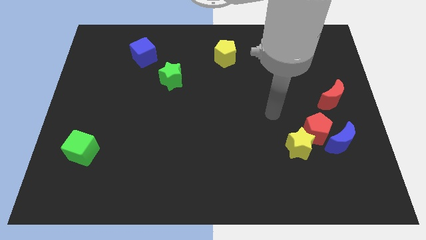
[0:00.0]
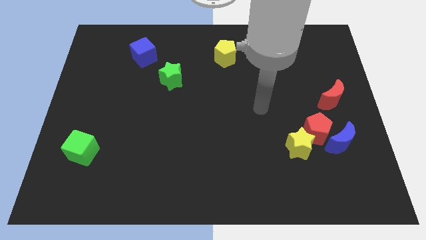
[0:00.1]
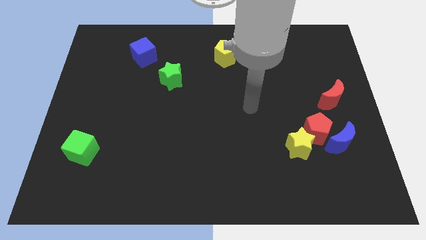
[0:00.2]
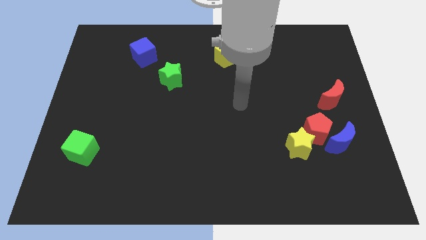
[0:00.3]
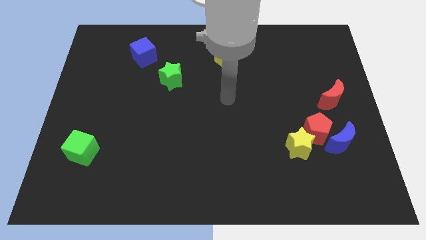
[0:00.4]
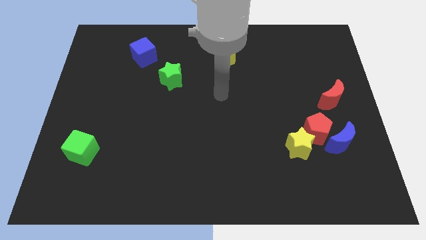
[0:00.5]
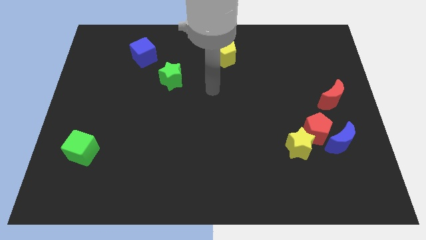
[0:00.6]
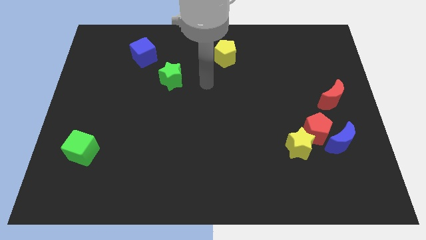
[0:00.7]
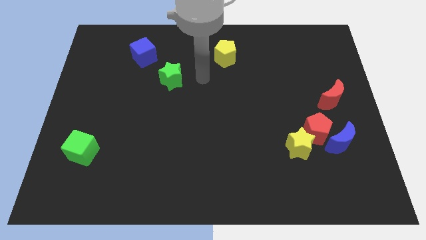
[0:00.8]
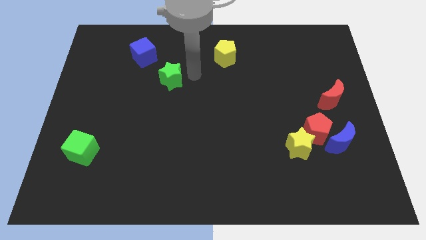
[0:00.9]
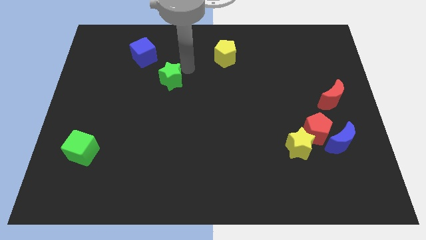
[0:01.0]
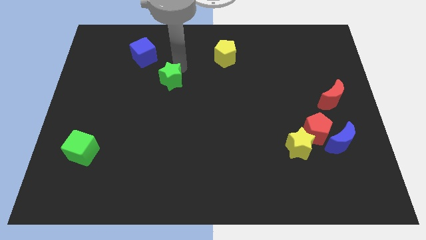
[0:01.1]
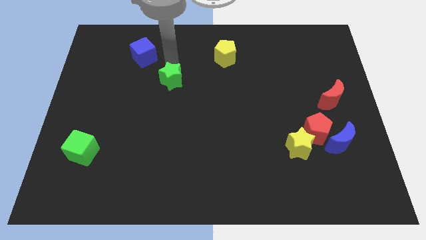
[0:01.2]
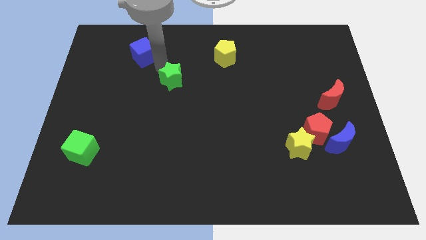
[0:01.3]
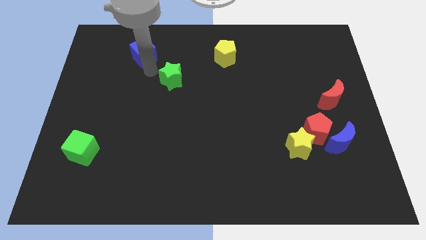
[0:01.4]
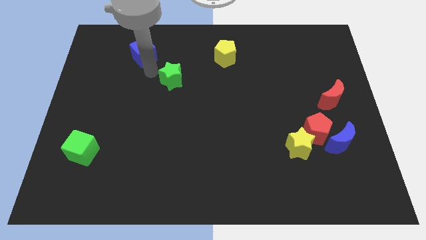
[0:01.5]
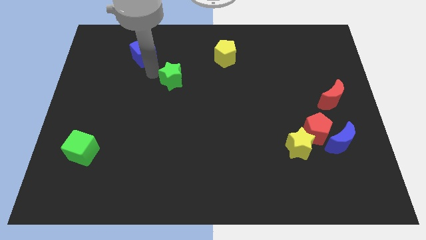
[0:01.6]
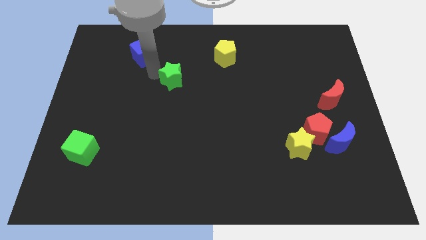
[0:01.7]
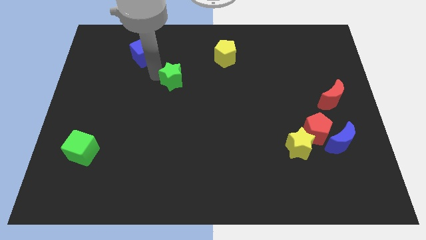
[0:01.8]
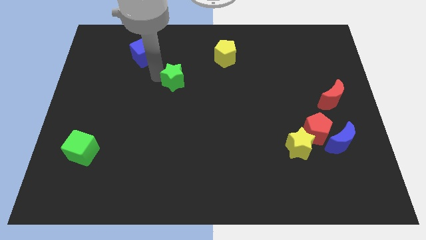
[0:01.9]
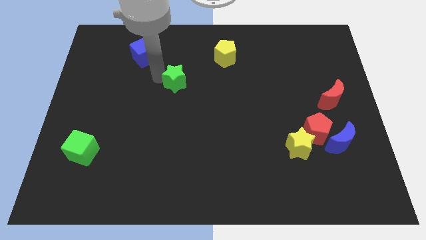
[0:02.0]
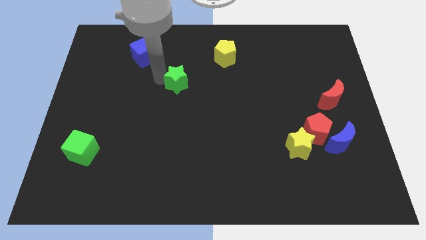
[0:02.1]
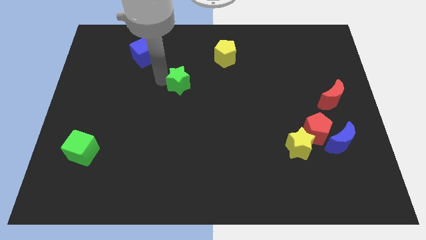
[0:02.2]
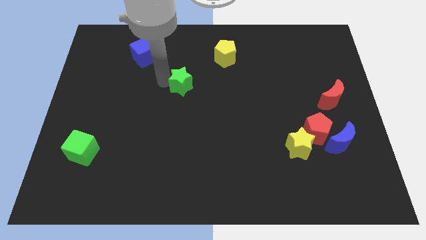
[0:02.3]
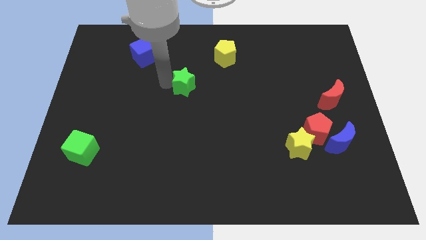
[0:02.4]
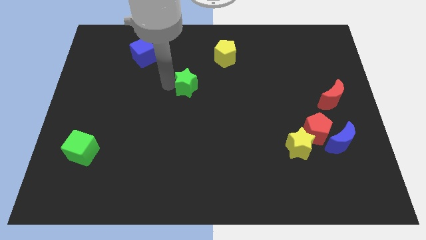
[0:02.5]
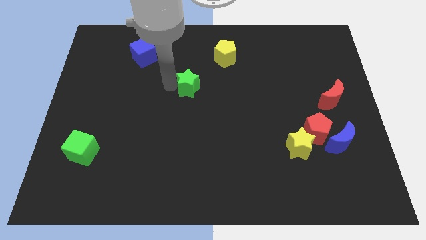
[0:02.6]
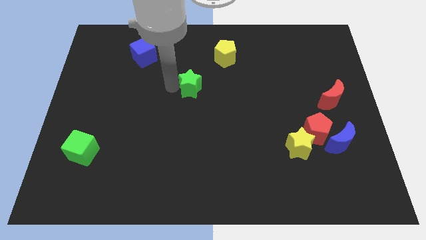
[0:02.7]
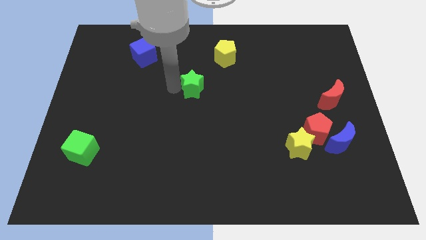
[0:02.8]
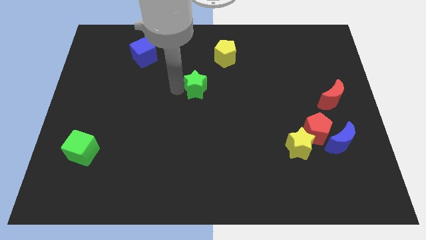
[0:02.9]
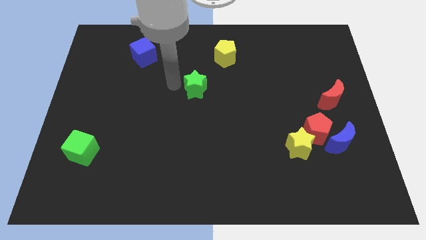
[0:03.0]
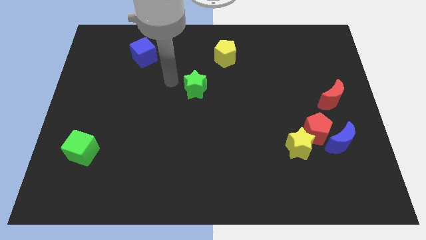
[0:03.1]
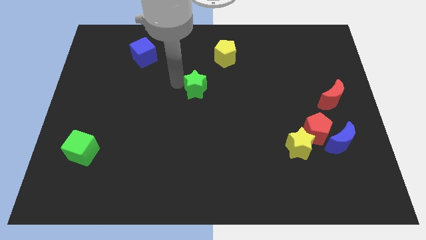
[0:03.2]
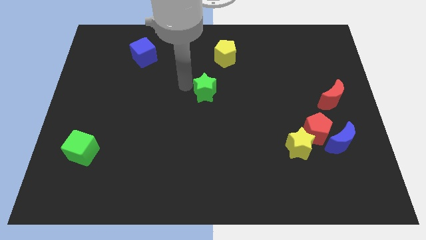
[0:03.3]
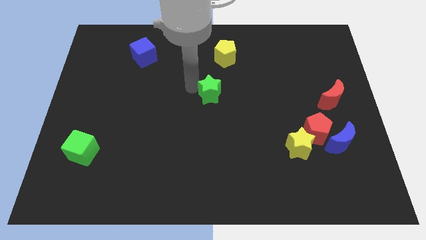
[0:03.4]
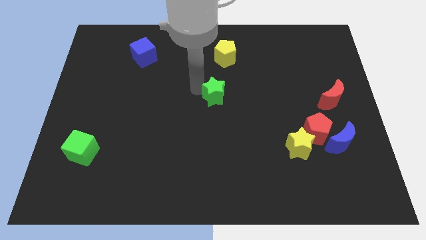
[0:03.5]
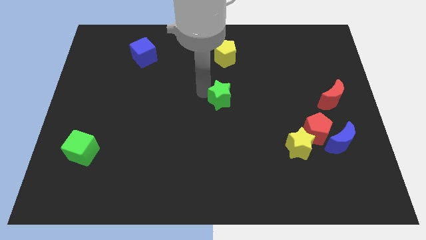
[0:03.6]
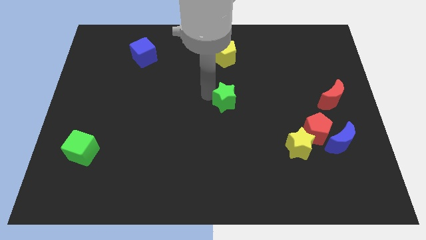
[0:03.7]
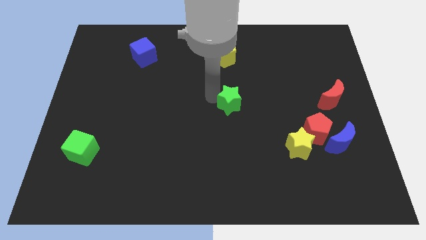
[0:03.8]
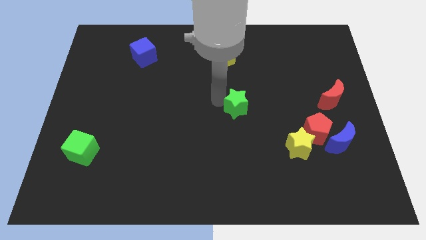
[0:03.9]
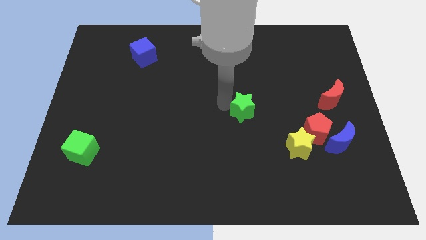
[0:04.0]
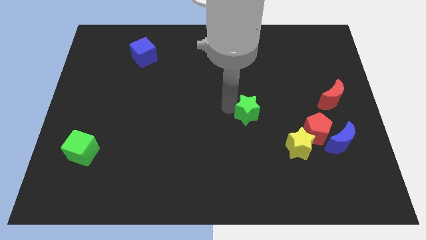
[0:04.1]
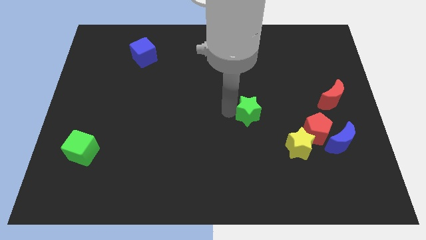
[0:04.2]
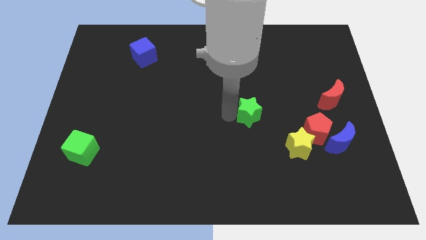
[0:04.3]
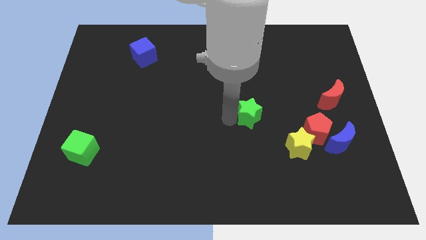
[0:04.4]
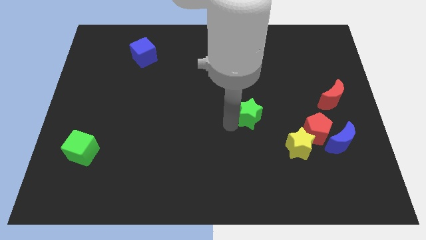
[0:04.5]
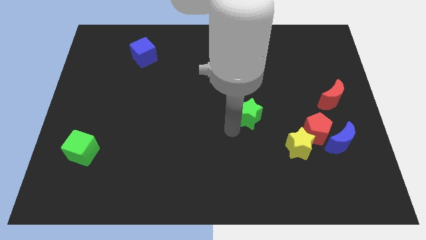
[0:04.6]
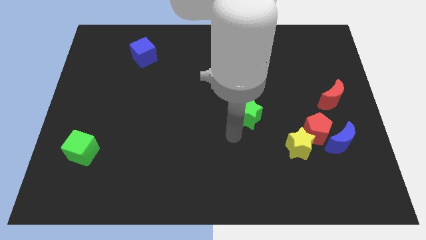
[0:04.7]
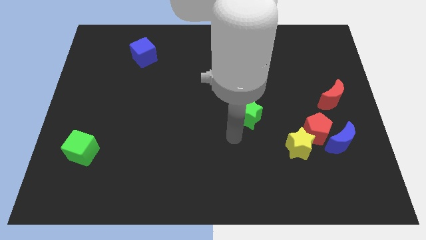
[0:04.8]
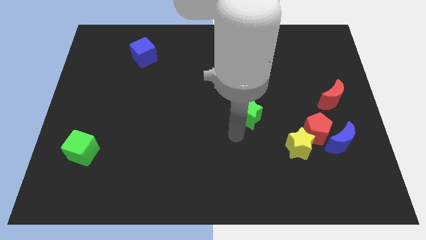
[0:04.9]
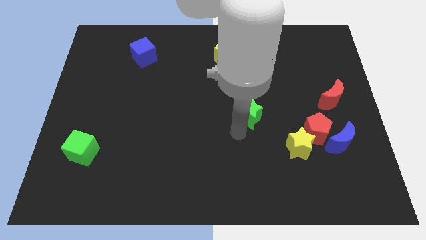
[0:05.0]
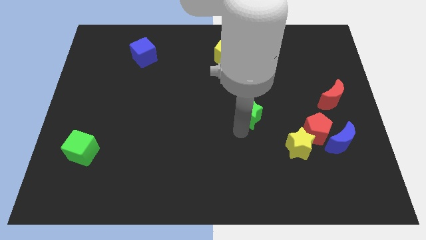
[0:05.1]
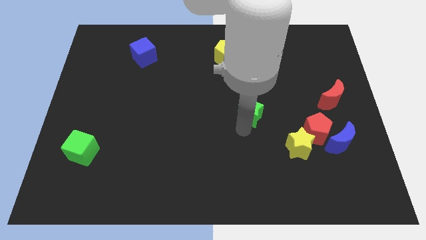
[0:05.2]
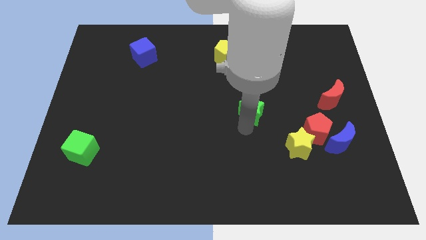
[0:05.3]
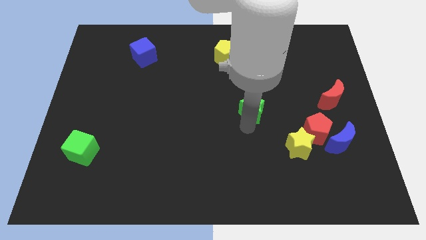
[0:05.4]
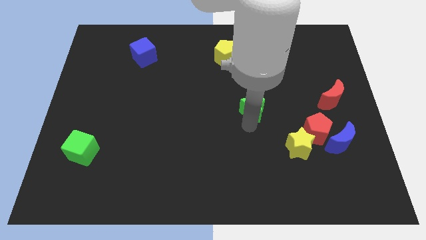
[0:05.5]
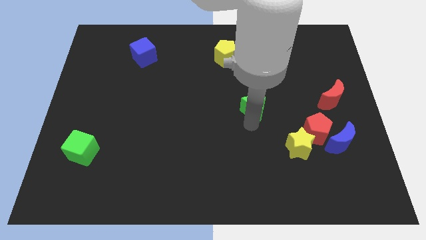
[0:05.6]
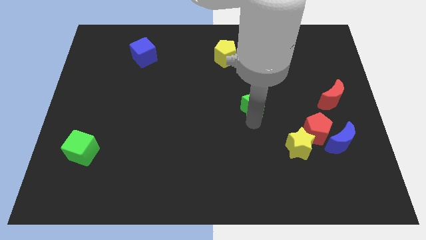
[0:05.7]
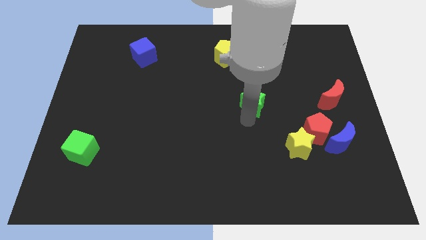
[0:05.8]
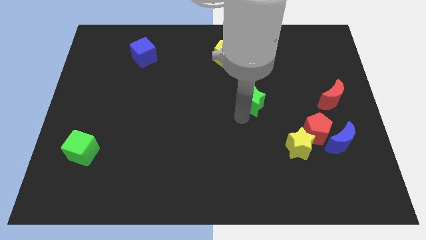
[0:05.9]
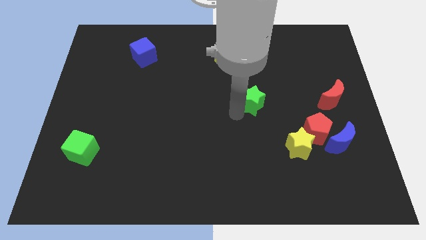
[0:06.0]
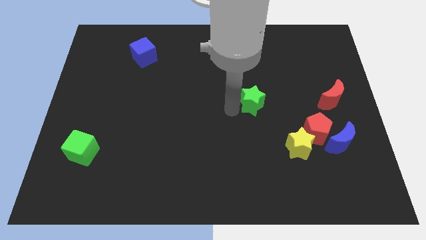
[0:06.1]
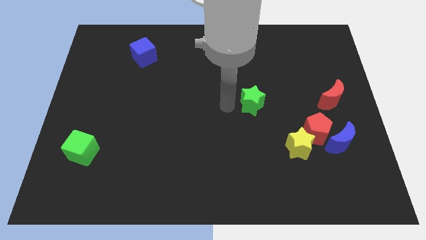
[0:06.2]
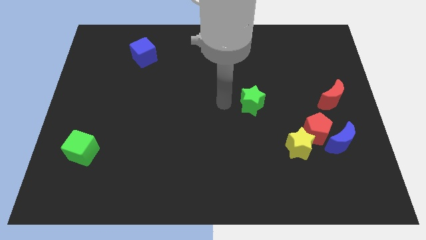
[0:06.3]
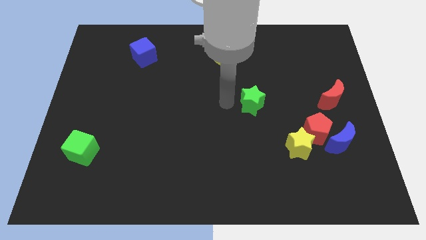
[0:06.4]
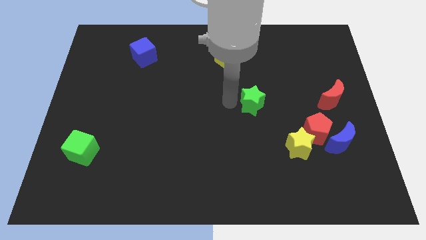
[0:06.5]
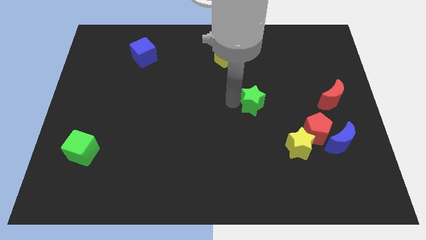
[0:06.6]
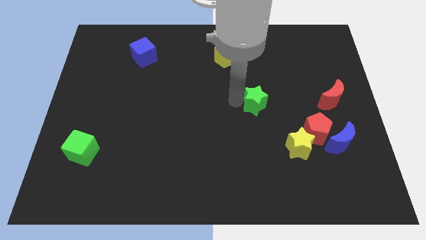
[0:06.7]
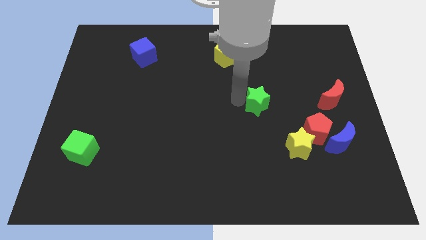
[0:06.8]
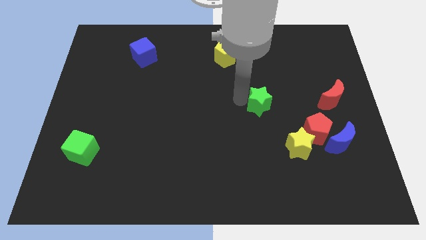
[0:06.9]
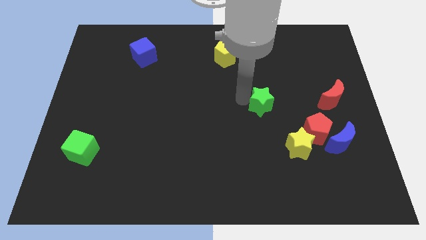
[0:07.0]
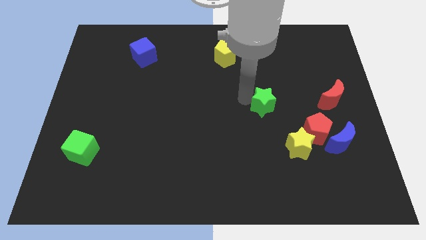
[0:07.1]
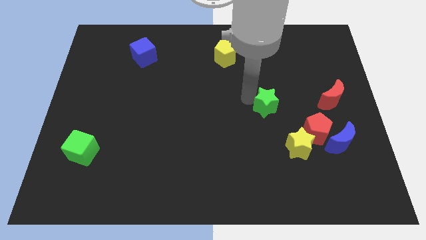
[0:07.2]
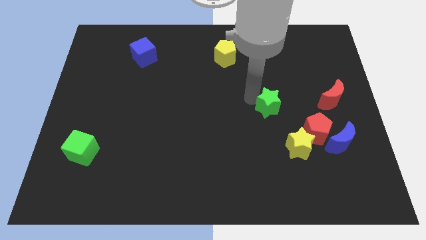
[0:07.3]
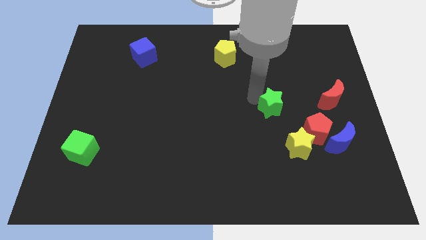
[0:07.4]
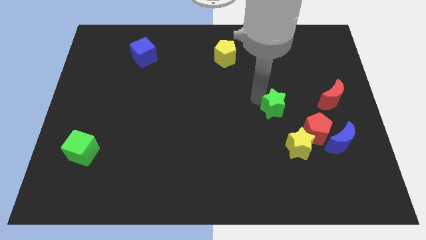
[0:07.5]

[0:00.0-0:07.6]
move the green star to the top side of the yellow star

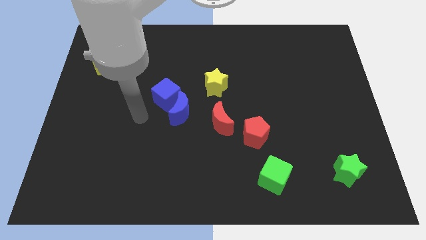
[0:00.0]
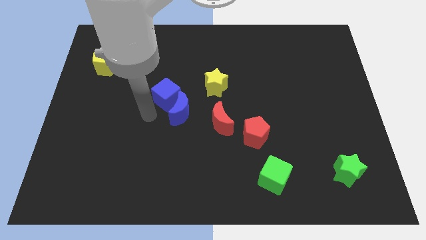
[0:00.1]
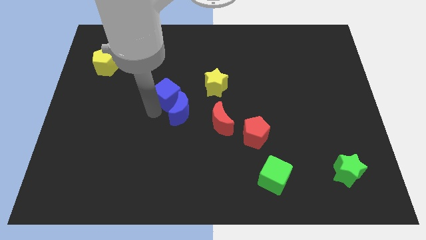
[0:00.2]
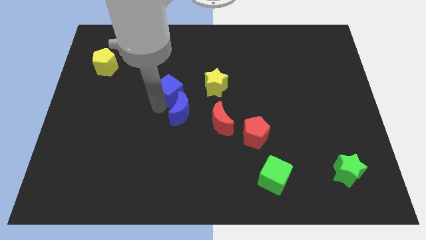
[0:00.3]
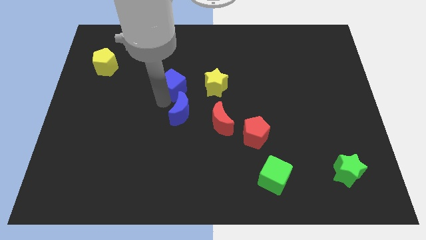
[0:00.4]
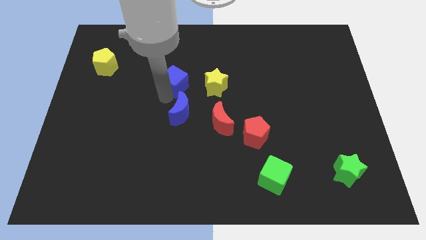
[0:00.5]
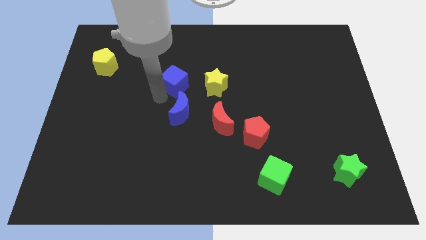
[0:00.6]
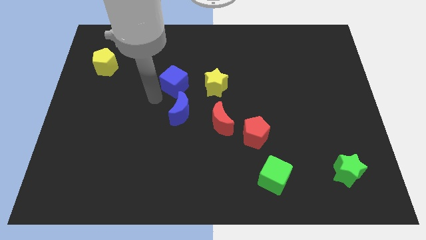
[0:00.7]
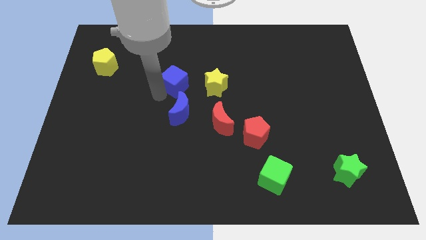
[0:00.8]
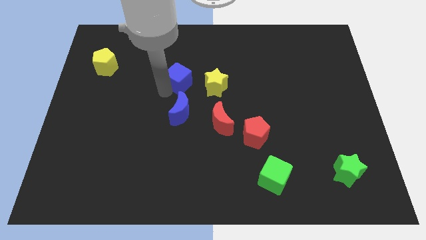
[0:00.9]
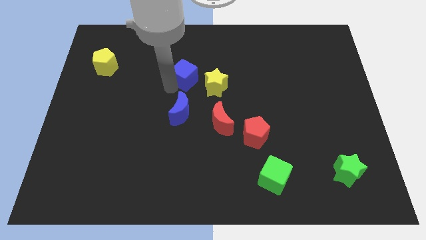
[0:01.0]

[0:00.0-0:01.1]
put the blue cube to the top left side of the yellow star
